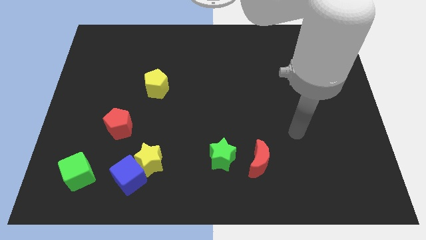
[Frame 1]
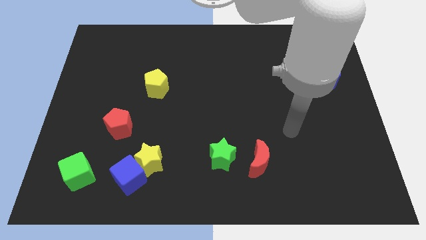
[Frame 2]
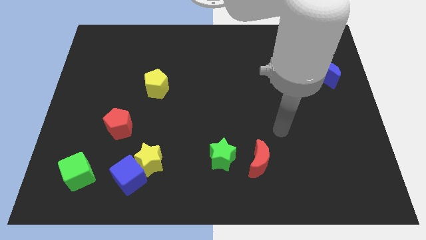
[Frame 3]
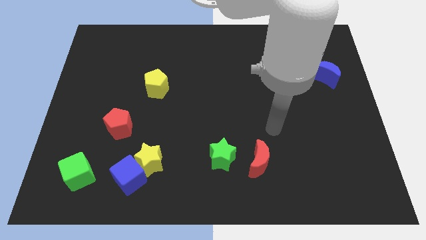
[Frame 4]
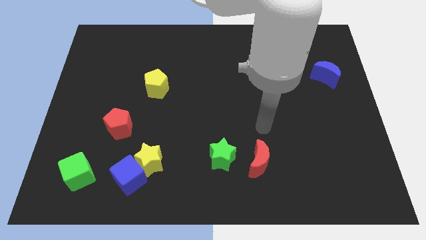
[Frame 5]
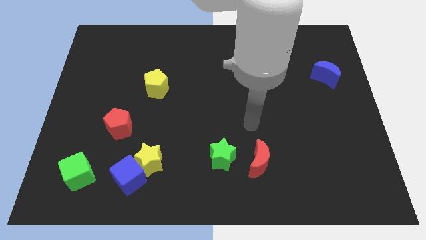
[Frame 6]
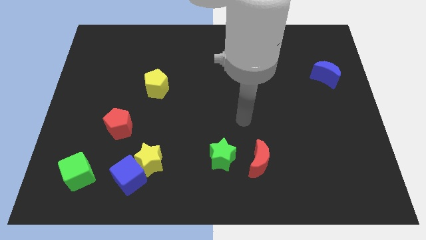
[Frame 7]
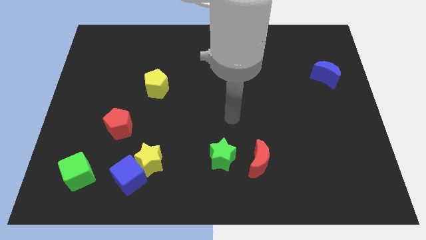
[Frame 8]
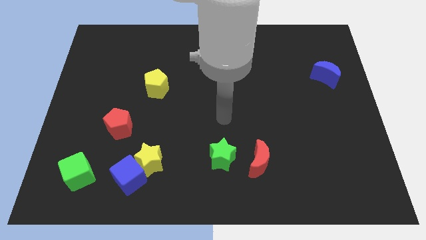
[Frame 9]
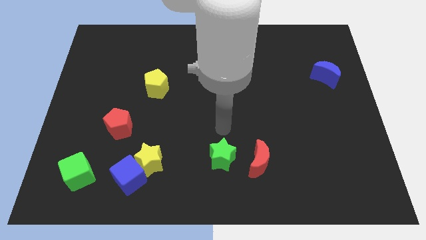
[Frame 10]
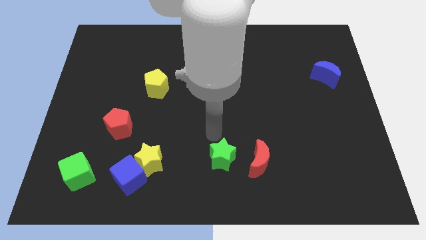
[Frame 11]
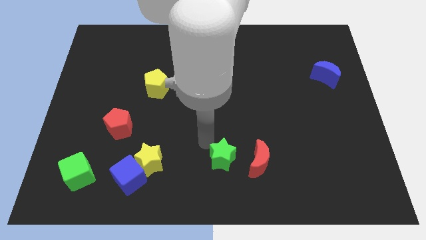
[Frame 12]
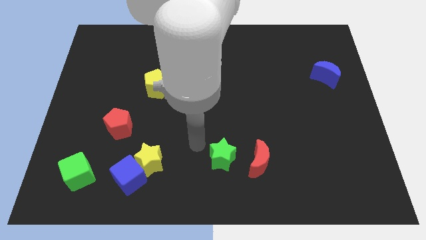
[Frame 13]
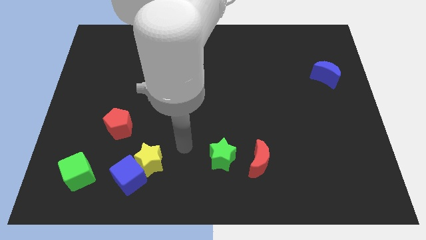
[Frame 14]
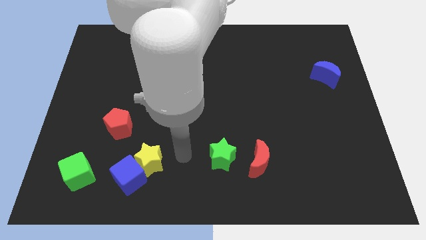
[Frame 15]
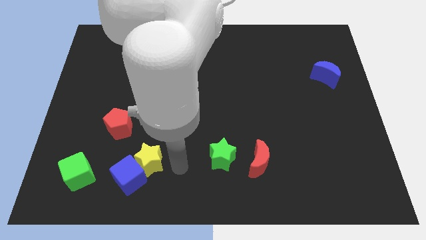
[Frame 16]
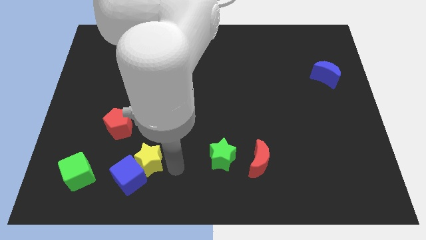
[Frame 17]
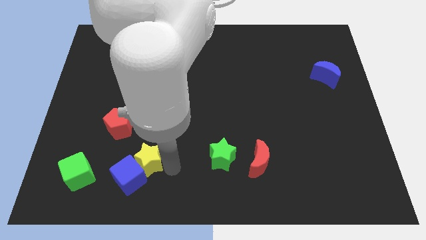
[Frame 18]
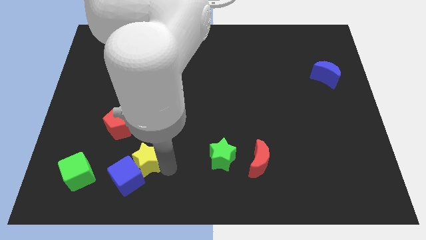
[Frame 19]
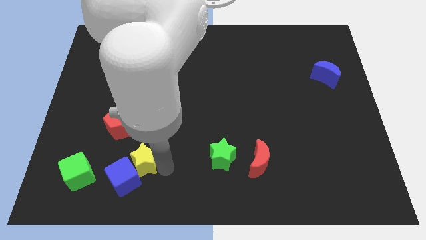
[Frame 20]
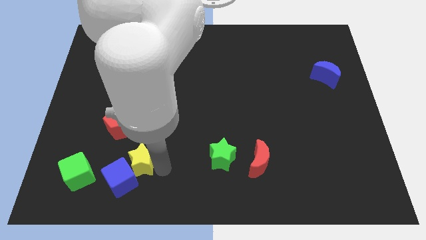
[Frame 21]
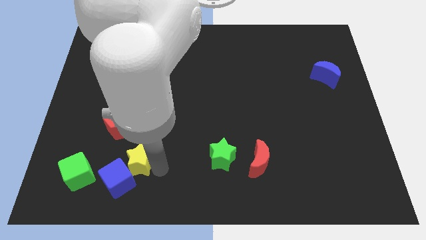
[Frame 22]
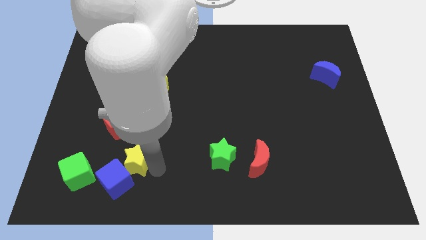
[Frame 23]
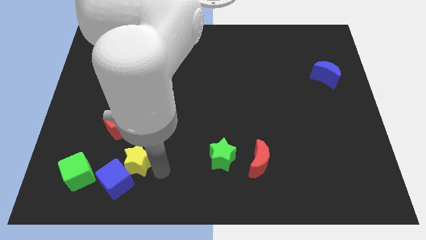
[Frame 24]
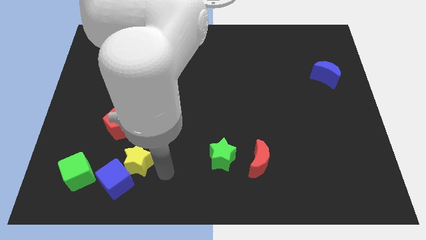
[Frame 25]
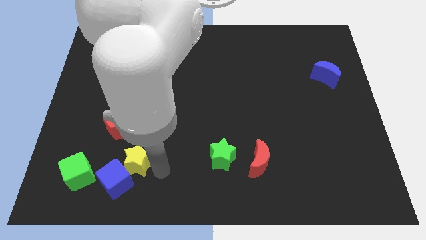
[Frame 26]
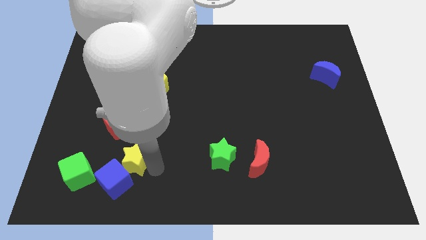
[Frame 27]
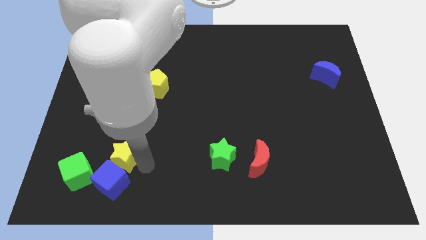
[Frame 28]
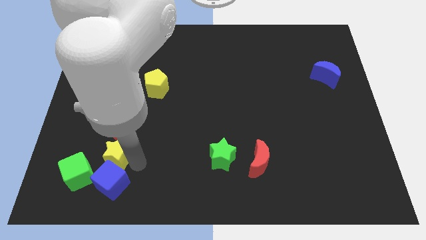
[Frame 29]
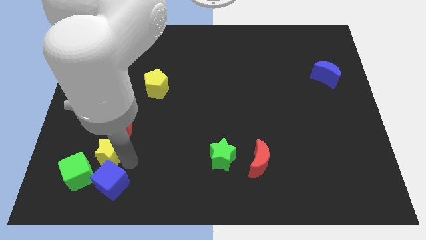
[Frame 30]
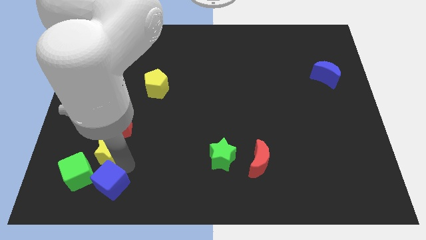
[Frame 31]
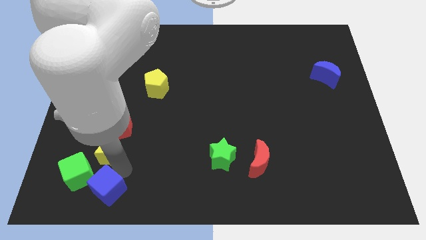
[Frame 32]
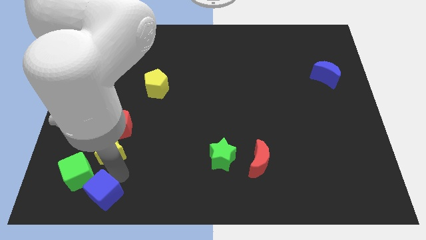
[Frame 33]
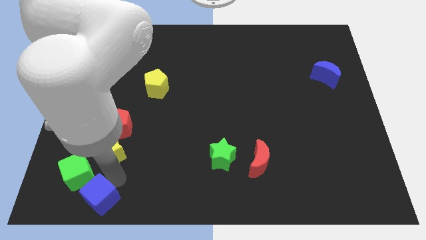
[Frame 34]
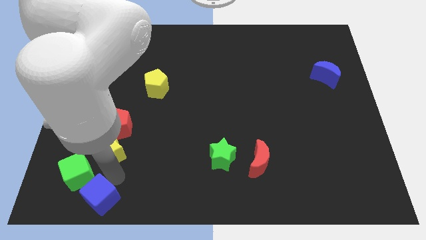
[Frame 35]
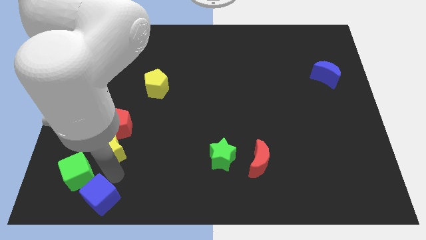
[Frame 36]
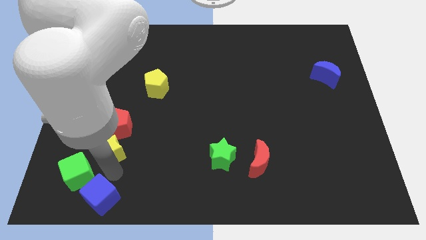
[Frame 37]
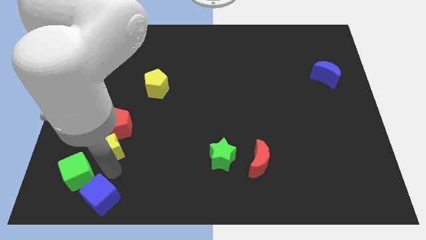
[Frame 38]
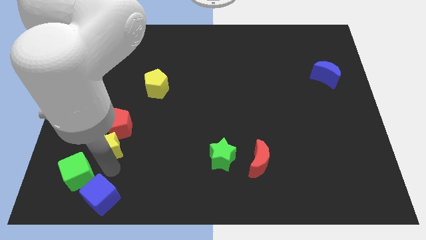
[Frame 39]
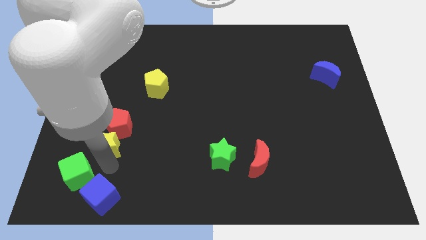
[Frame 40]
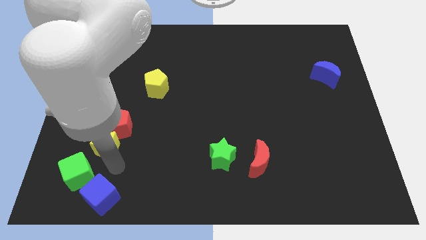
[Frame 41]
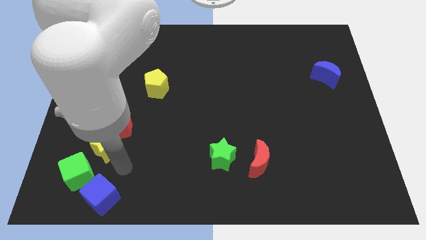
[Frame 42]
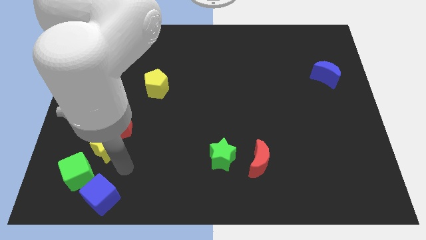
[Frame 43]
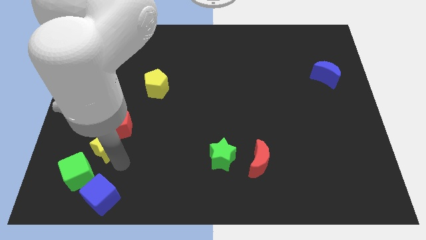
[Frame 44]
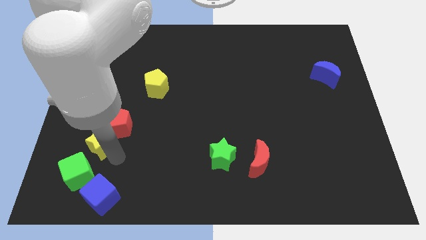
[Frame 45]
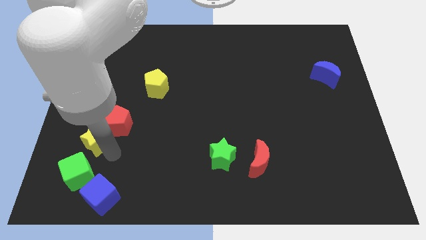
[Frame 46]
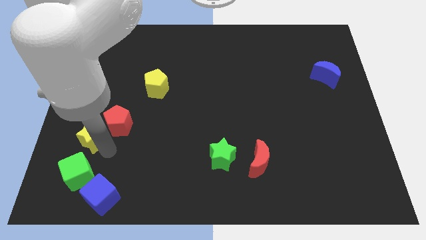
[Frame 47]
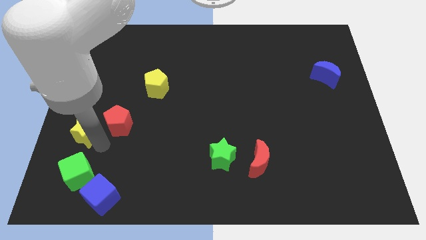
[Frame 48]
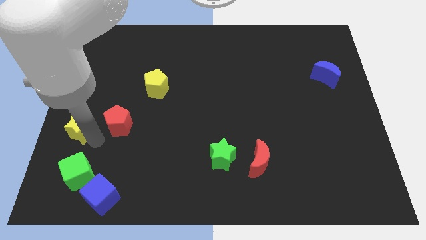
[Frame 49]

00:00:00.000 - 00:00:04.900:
move the yellow star to the center left
